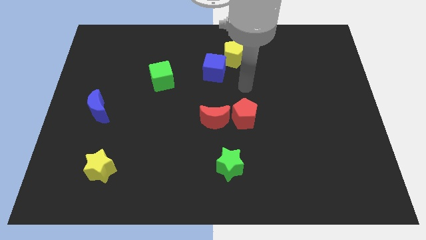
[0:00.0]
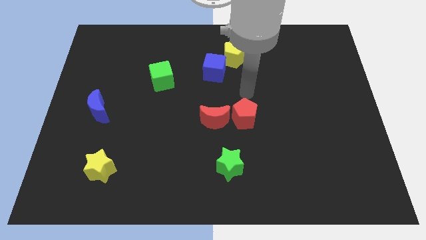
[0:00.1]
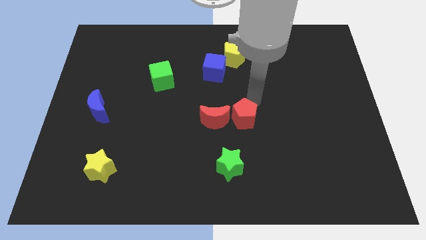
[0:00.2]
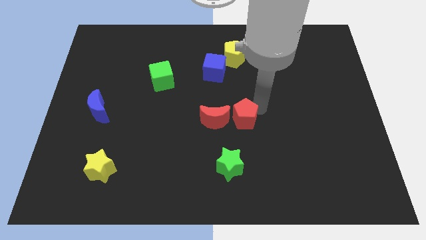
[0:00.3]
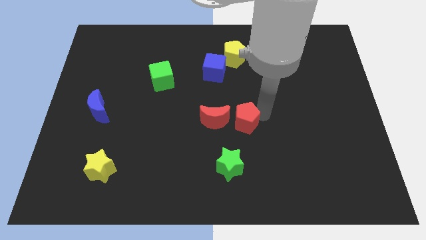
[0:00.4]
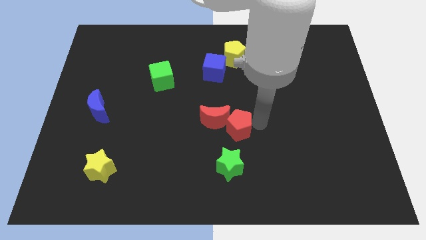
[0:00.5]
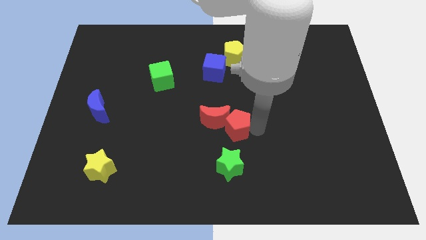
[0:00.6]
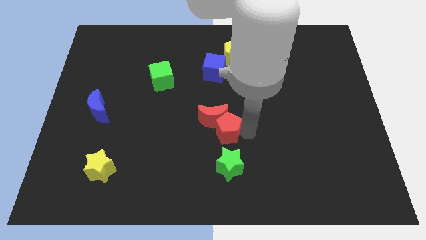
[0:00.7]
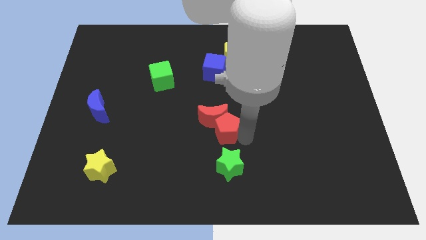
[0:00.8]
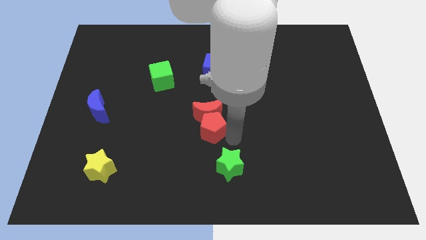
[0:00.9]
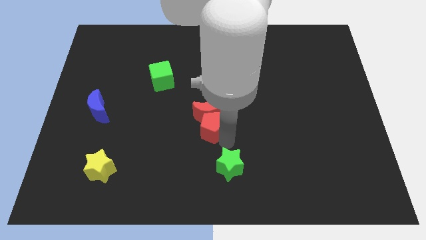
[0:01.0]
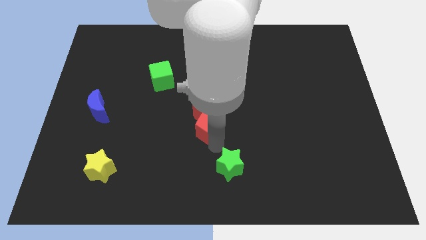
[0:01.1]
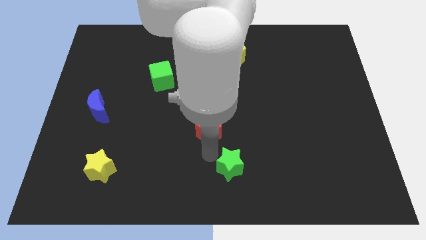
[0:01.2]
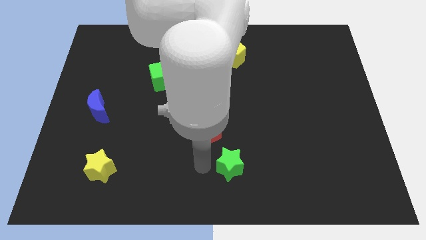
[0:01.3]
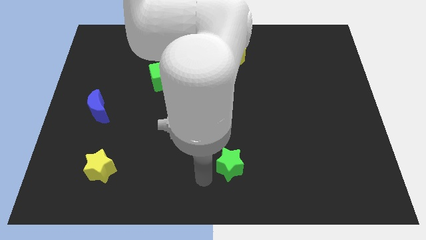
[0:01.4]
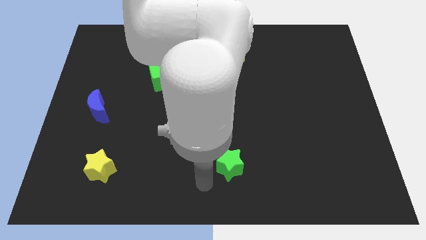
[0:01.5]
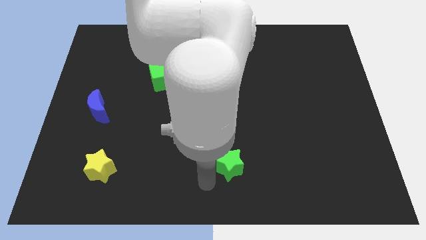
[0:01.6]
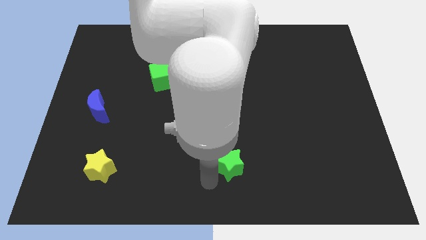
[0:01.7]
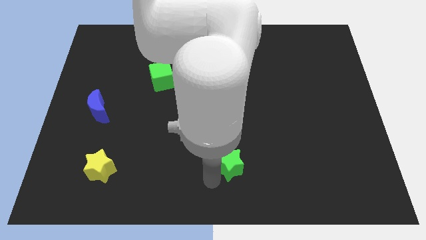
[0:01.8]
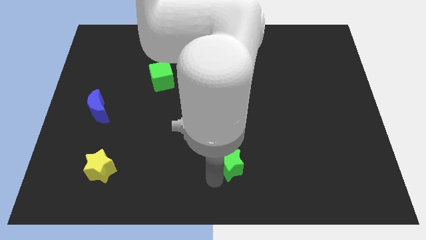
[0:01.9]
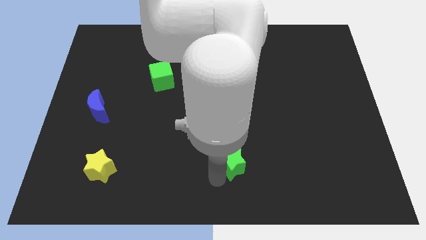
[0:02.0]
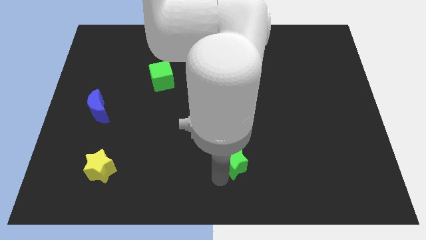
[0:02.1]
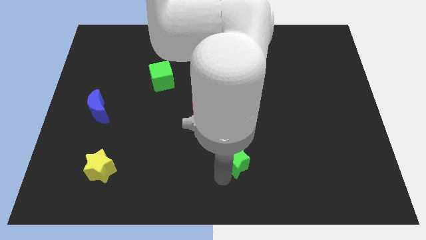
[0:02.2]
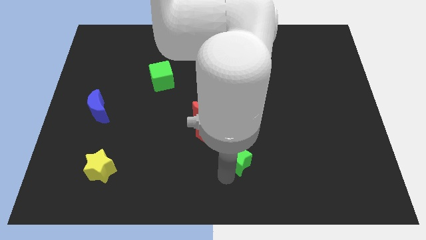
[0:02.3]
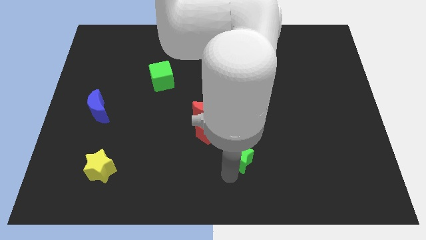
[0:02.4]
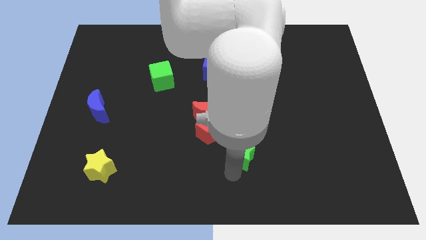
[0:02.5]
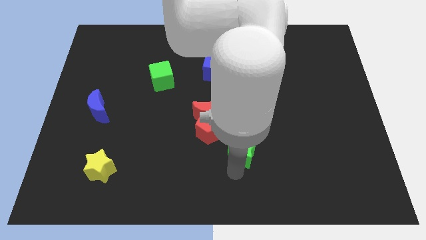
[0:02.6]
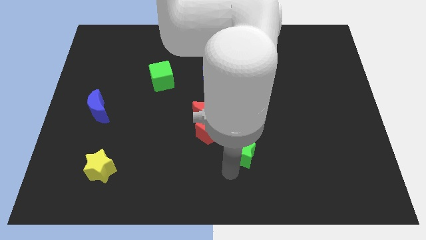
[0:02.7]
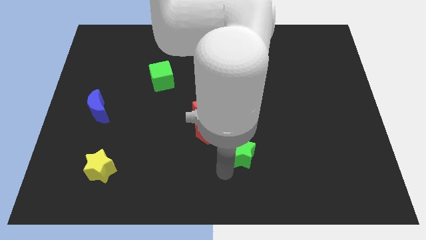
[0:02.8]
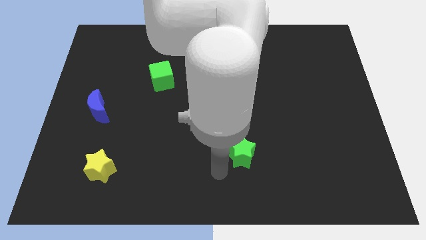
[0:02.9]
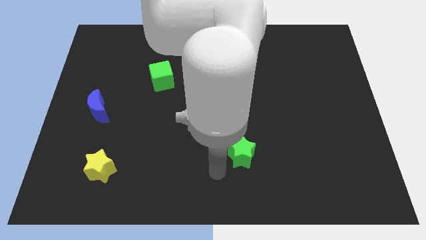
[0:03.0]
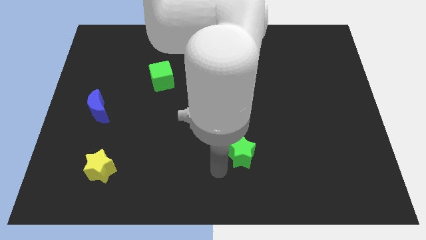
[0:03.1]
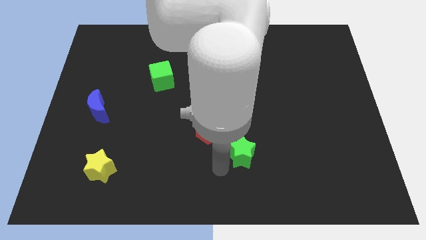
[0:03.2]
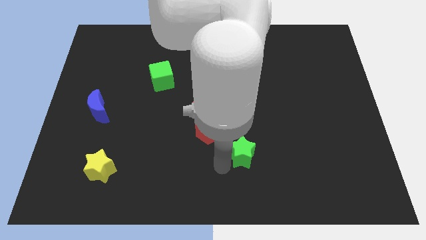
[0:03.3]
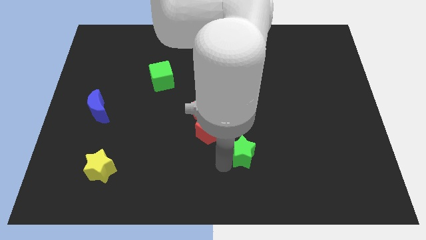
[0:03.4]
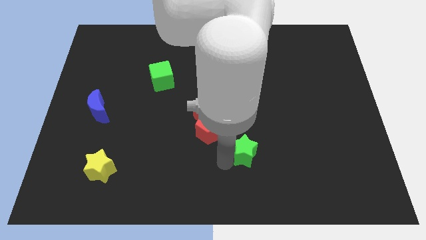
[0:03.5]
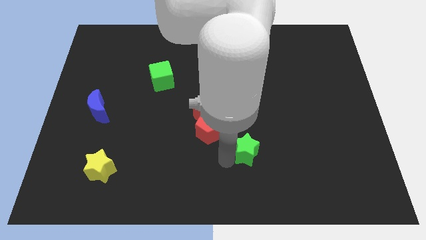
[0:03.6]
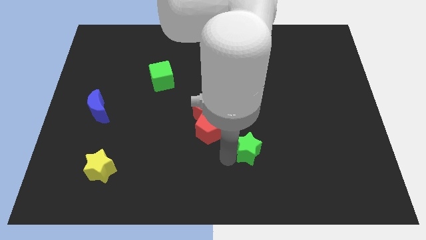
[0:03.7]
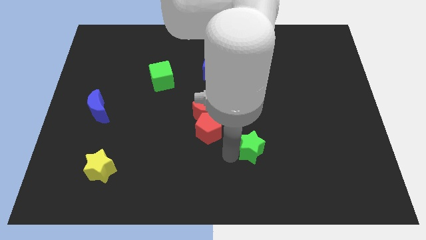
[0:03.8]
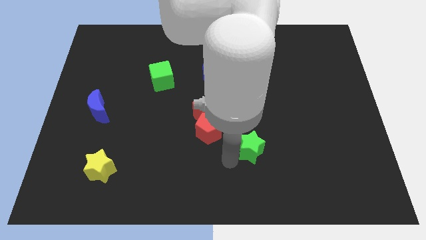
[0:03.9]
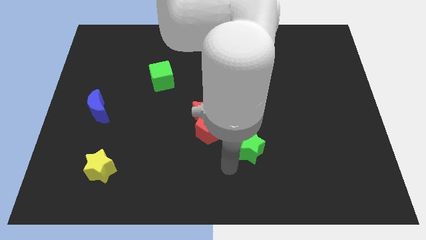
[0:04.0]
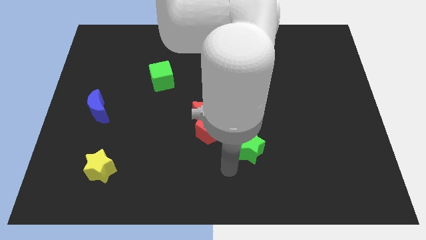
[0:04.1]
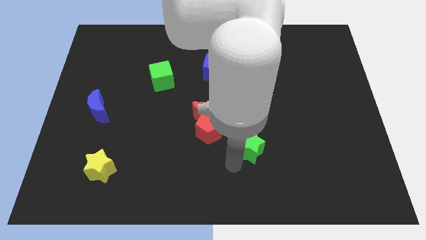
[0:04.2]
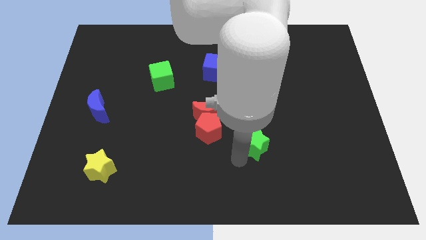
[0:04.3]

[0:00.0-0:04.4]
slightly slide the green star diagonally upwards and right

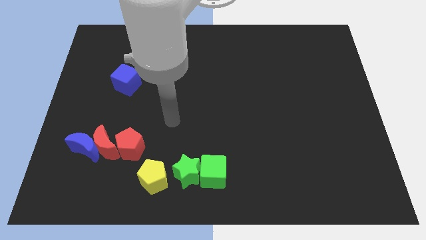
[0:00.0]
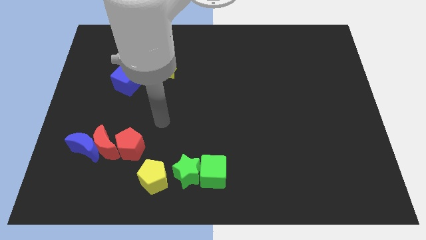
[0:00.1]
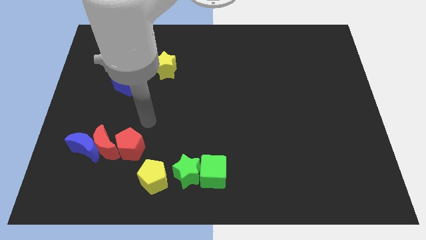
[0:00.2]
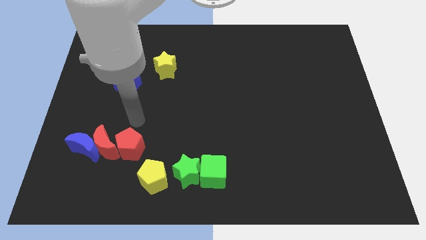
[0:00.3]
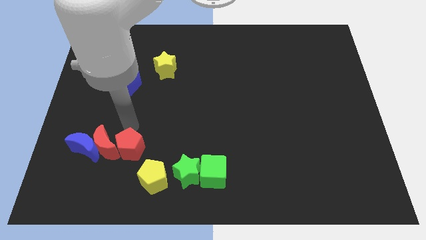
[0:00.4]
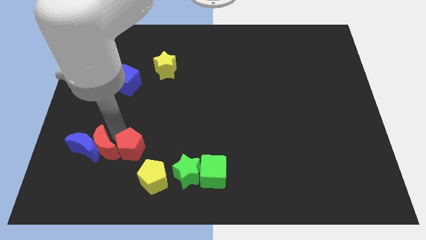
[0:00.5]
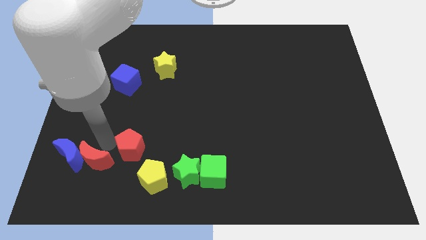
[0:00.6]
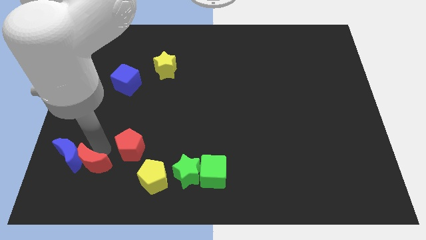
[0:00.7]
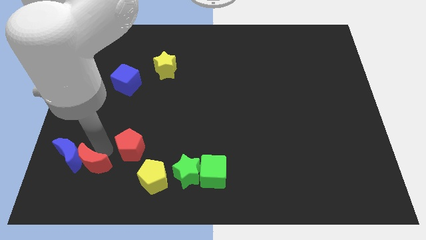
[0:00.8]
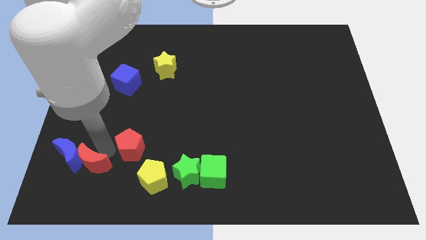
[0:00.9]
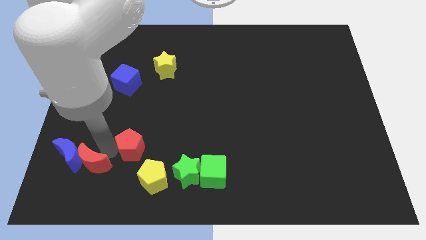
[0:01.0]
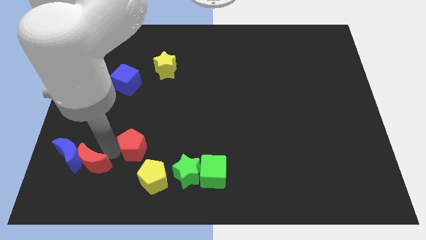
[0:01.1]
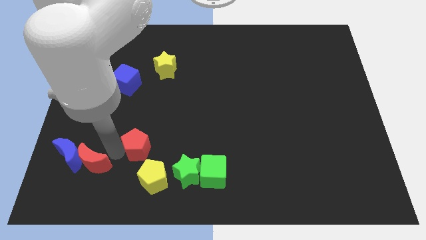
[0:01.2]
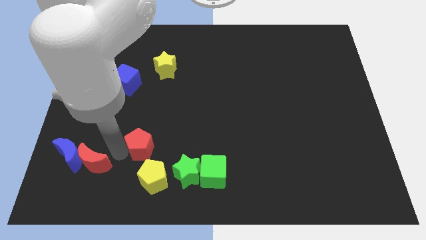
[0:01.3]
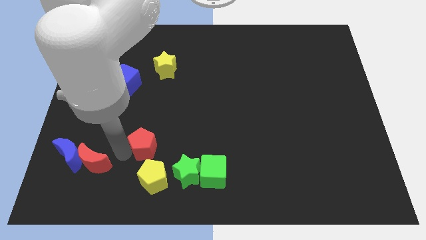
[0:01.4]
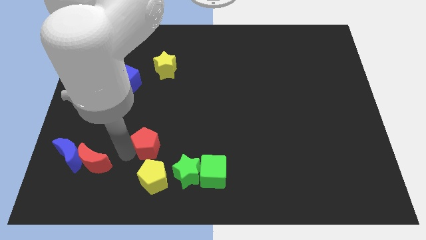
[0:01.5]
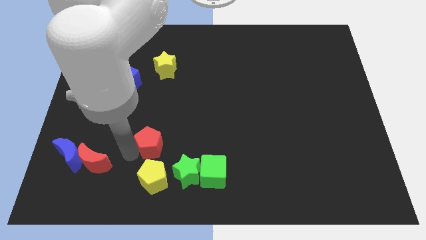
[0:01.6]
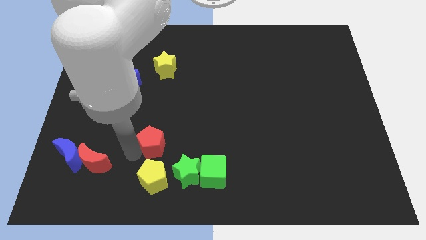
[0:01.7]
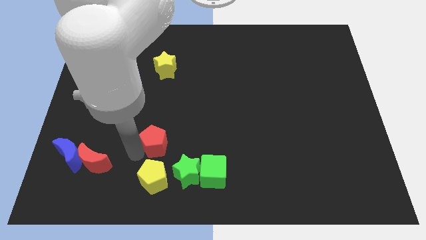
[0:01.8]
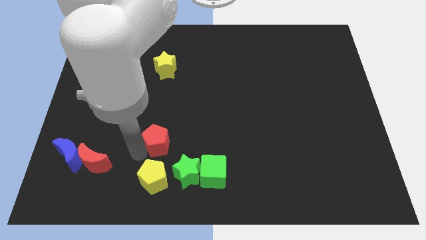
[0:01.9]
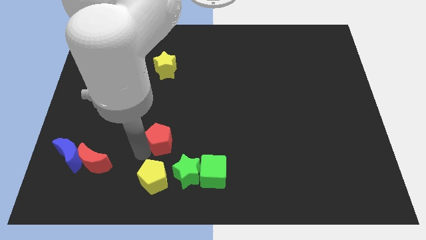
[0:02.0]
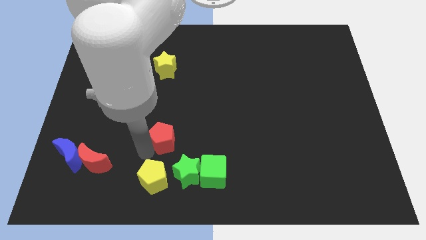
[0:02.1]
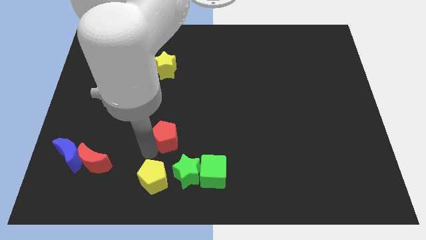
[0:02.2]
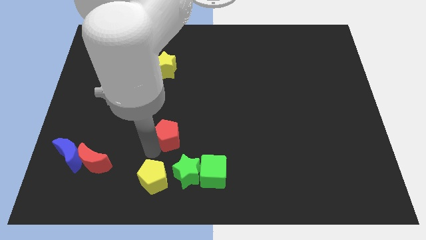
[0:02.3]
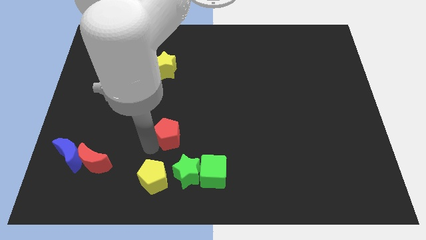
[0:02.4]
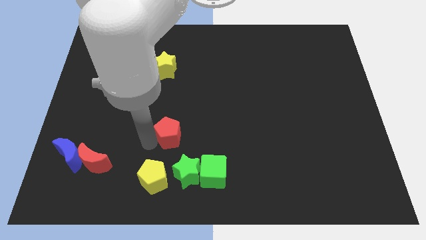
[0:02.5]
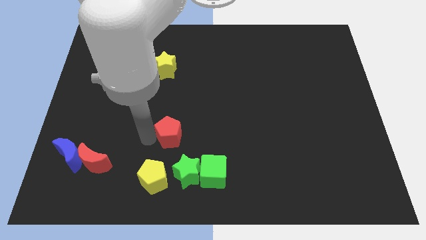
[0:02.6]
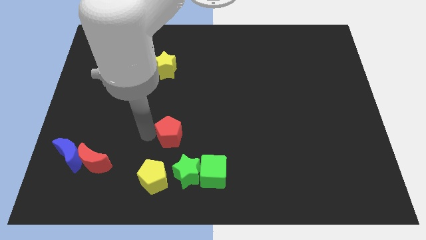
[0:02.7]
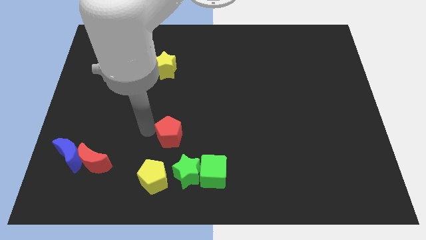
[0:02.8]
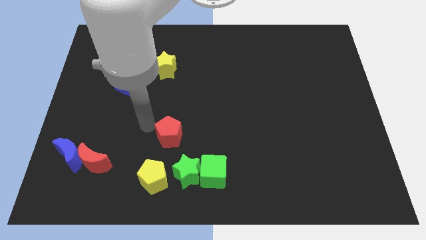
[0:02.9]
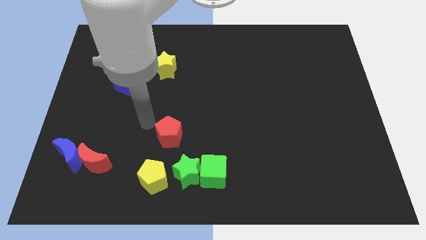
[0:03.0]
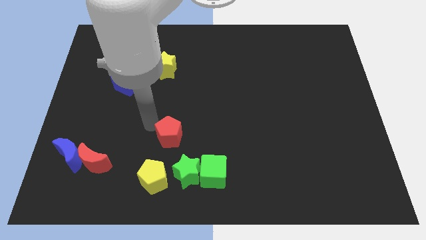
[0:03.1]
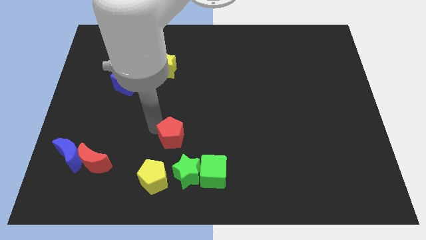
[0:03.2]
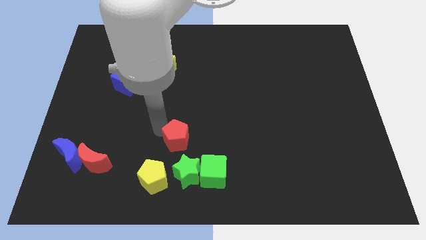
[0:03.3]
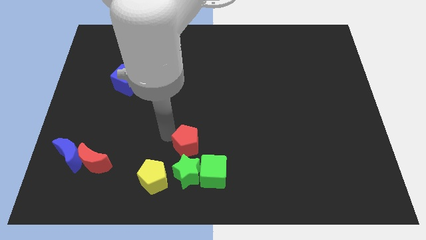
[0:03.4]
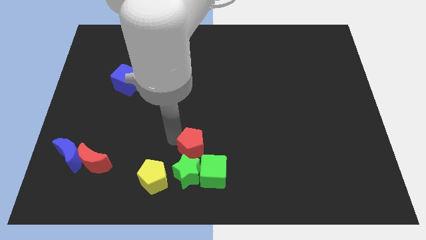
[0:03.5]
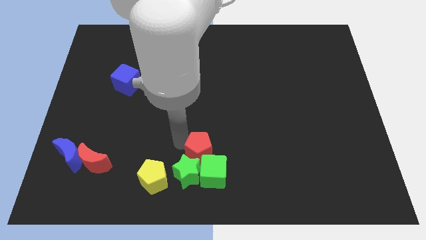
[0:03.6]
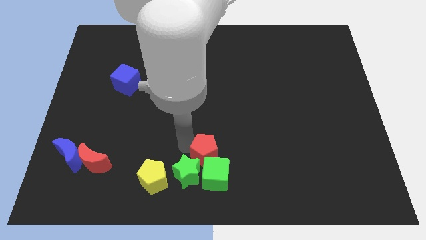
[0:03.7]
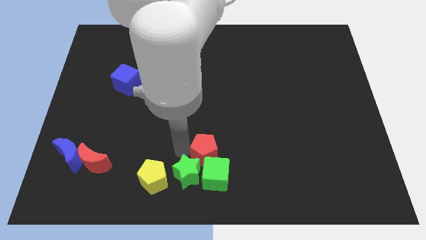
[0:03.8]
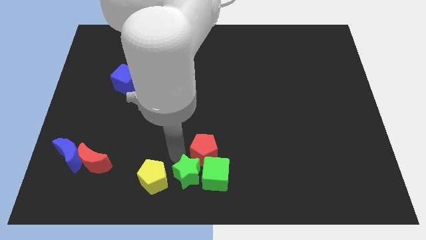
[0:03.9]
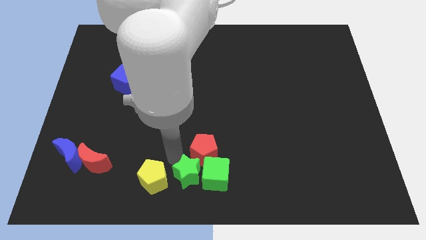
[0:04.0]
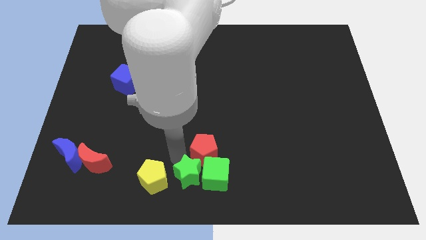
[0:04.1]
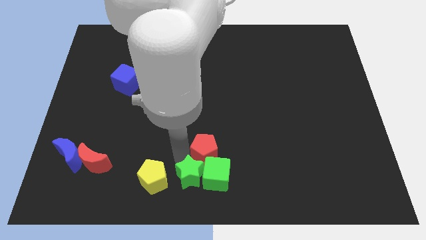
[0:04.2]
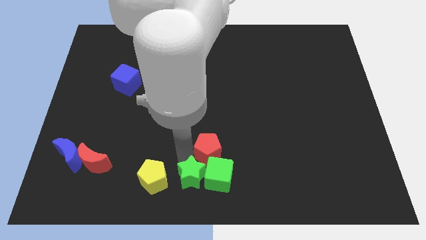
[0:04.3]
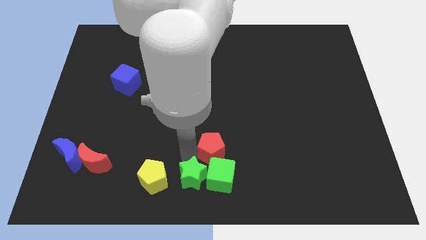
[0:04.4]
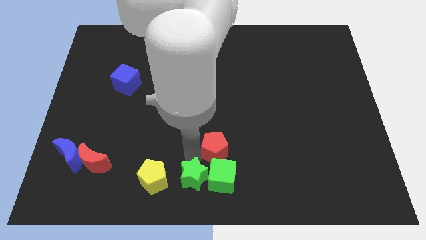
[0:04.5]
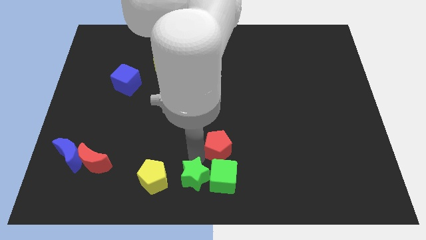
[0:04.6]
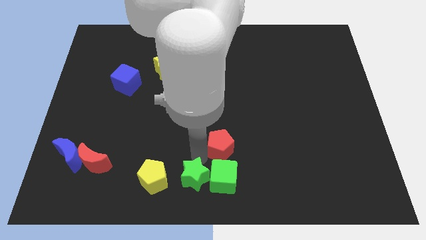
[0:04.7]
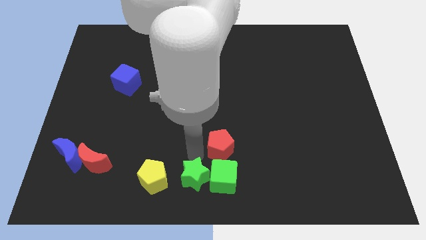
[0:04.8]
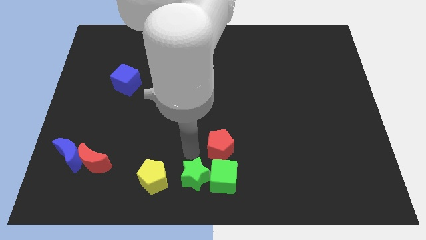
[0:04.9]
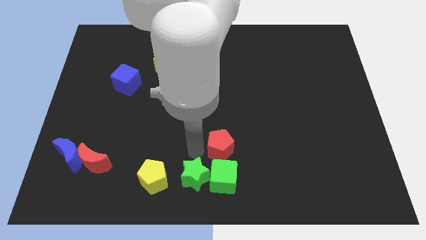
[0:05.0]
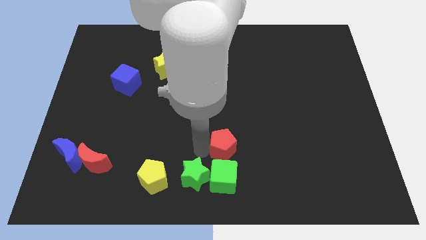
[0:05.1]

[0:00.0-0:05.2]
push the red pentagon right
